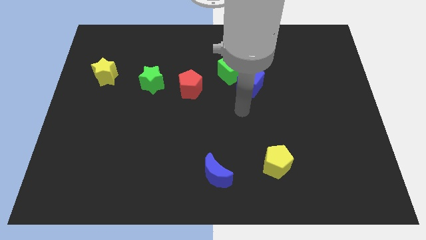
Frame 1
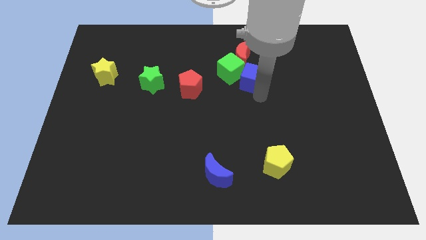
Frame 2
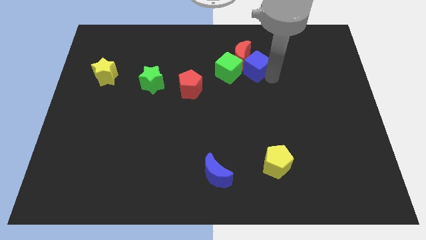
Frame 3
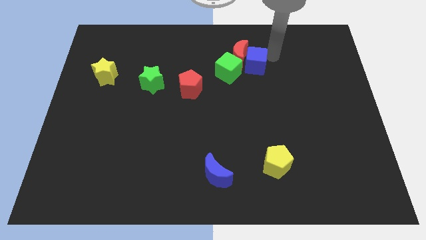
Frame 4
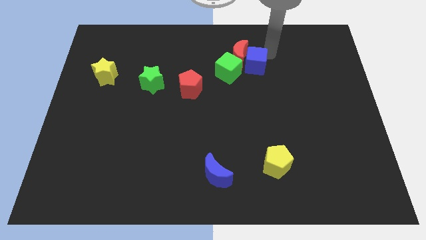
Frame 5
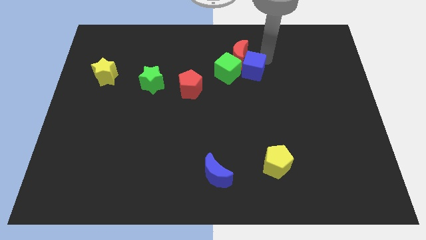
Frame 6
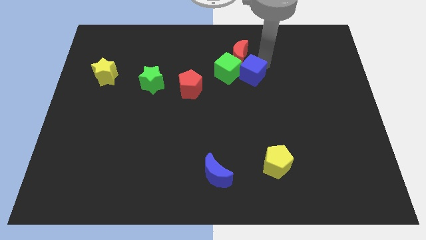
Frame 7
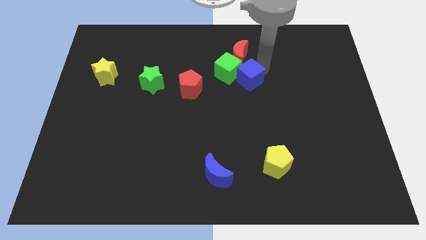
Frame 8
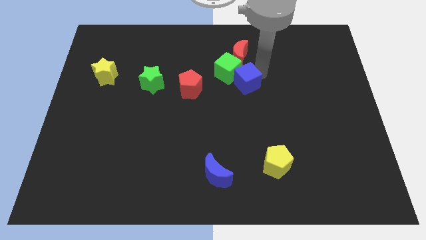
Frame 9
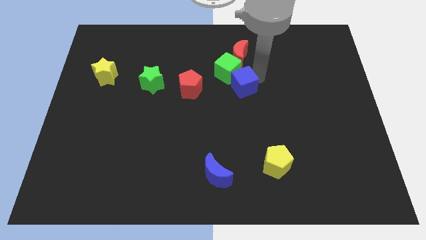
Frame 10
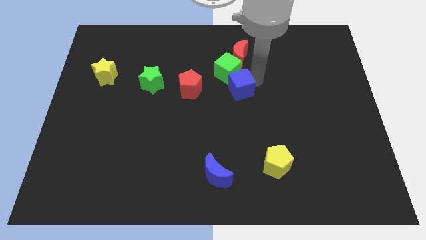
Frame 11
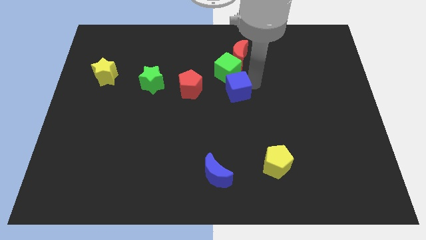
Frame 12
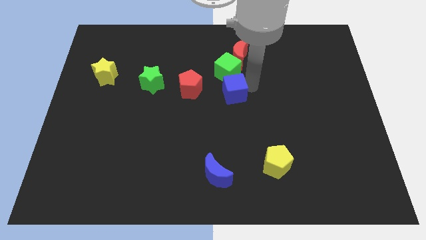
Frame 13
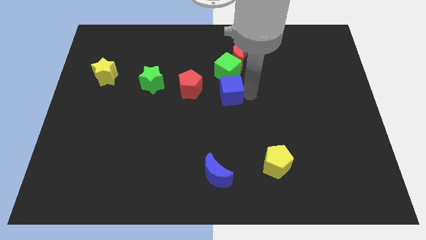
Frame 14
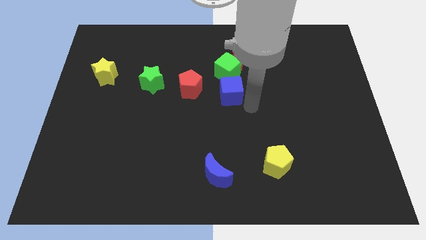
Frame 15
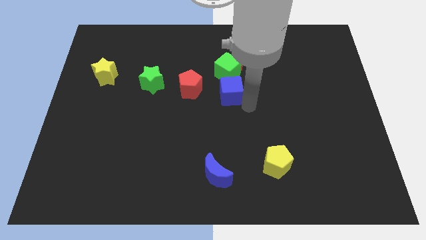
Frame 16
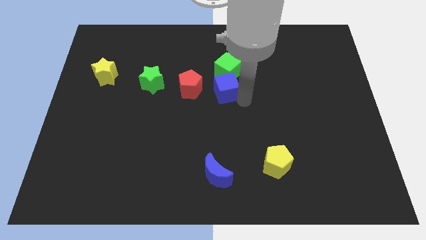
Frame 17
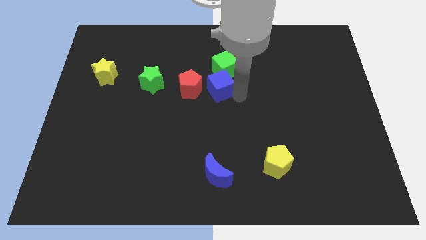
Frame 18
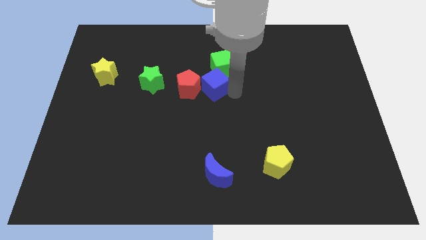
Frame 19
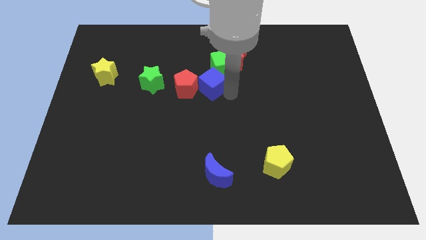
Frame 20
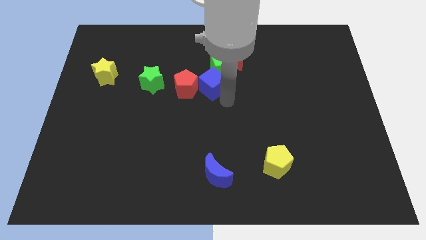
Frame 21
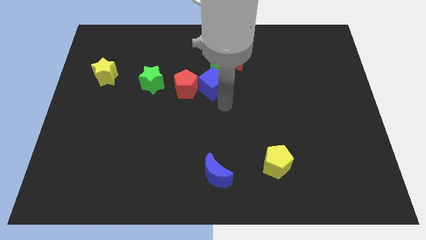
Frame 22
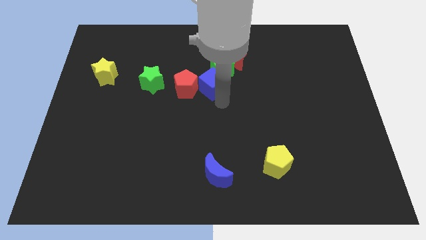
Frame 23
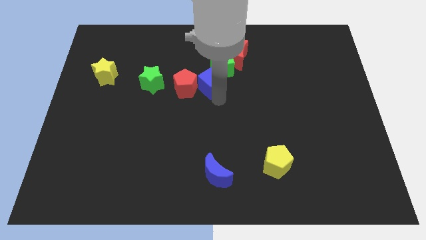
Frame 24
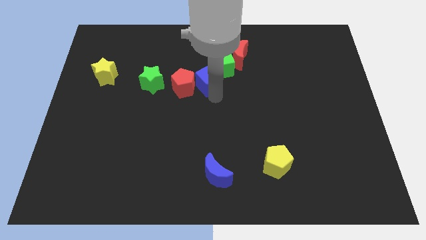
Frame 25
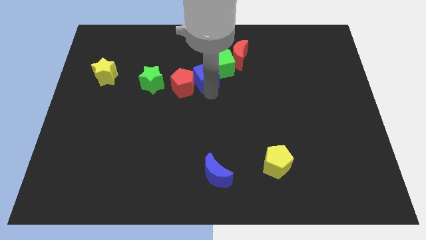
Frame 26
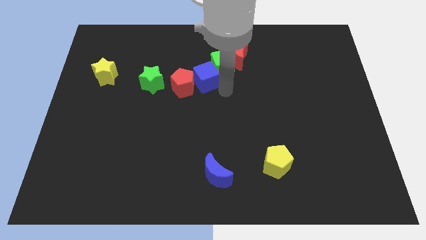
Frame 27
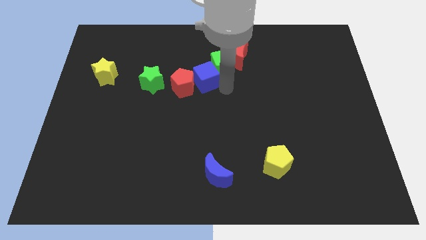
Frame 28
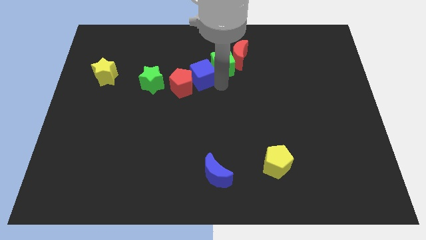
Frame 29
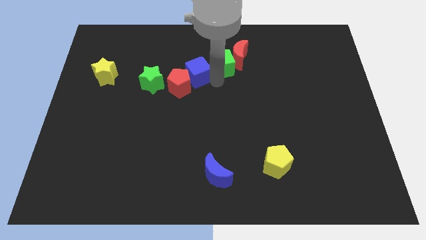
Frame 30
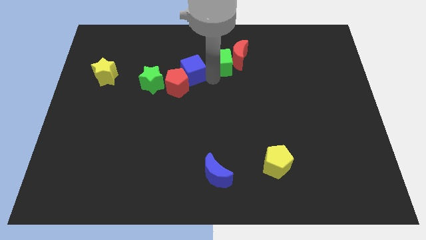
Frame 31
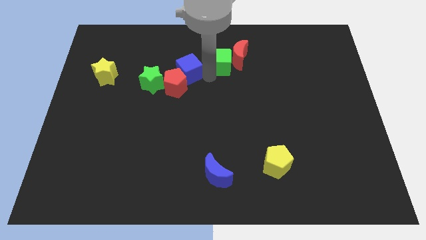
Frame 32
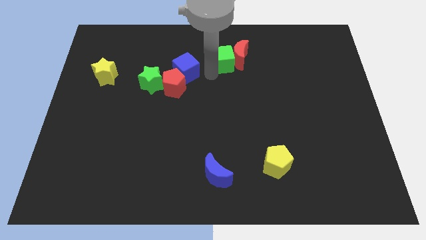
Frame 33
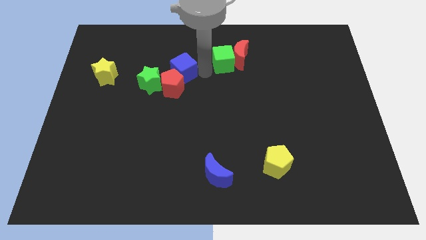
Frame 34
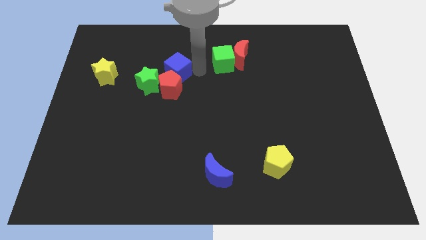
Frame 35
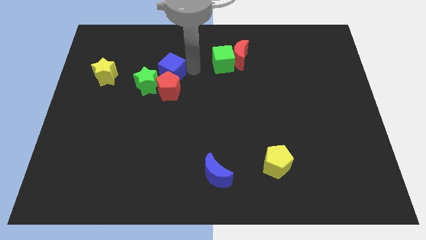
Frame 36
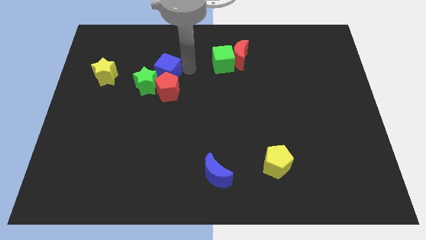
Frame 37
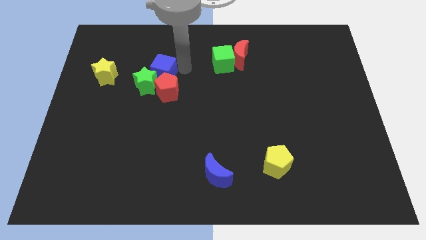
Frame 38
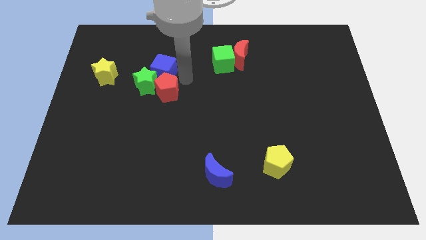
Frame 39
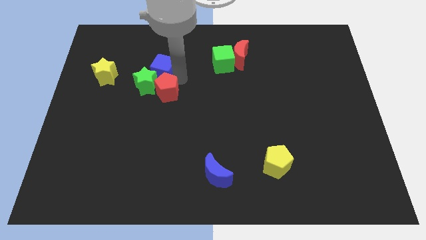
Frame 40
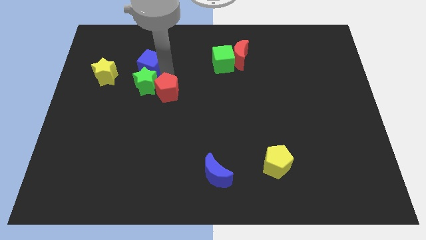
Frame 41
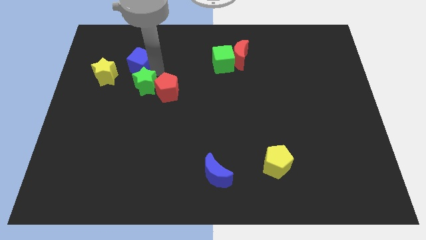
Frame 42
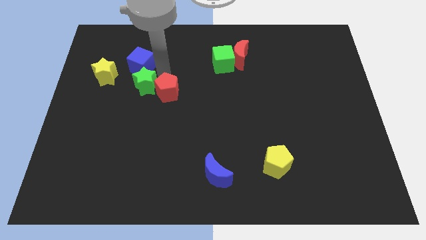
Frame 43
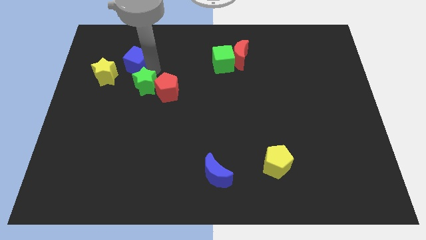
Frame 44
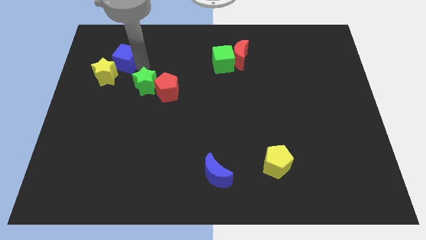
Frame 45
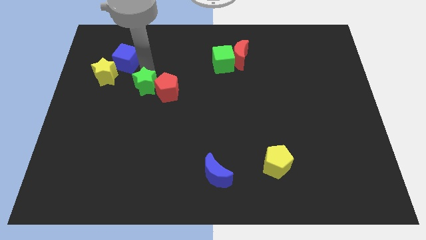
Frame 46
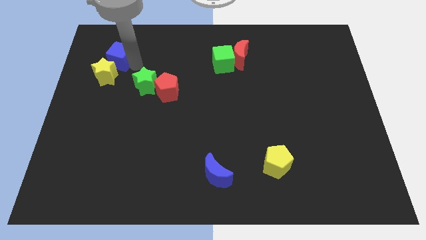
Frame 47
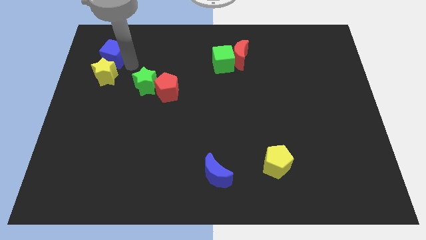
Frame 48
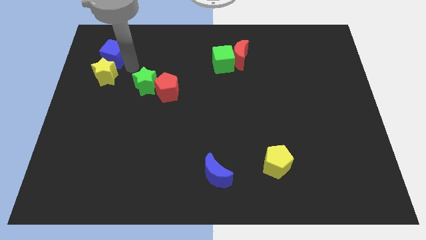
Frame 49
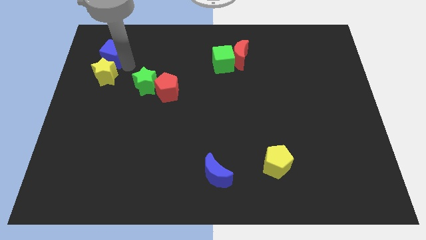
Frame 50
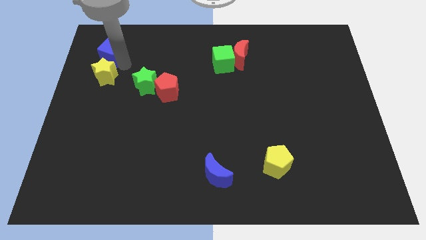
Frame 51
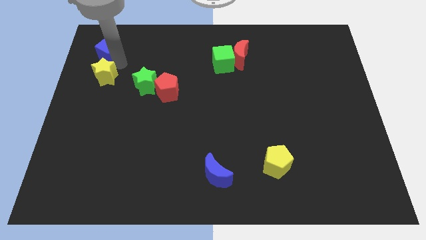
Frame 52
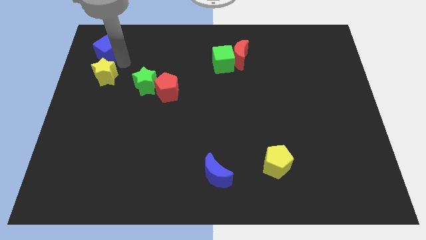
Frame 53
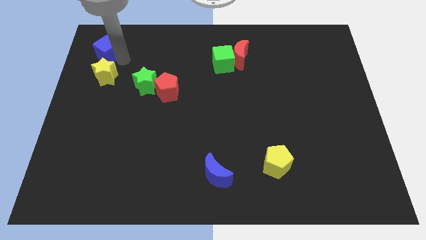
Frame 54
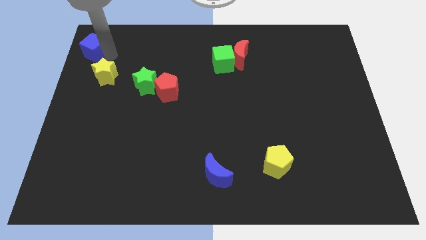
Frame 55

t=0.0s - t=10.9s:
move the blue cube to the top left corner
